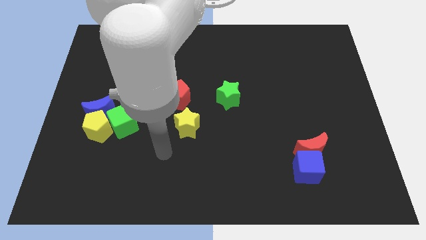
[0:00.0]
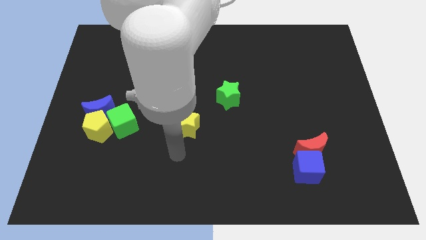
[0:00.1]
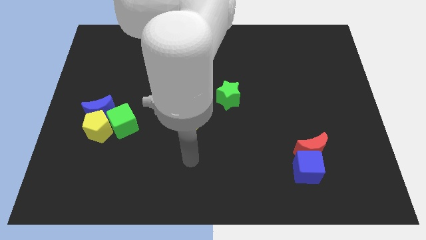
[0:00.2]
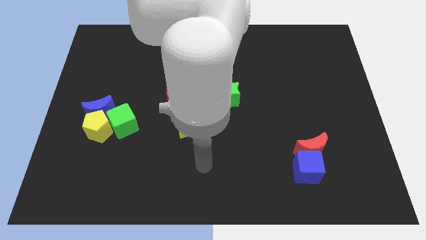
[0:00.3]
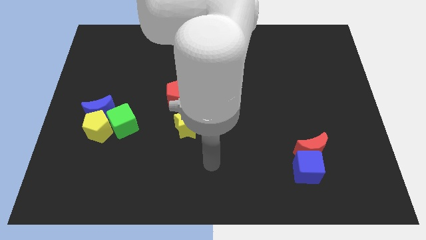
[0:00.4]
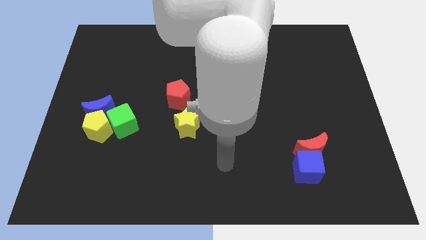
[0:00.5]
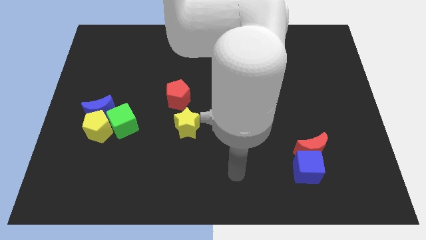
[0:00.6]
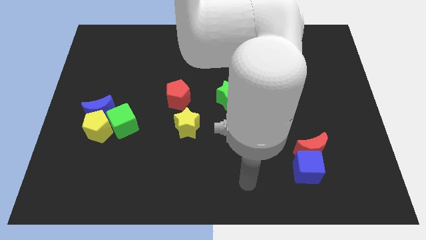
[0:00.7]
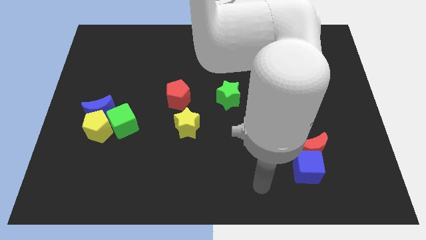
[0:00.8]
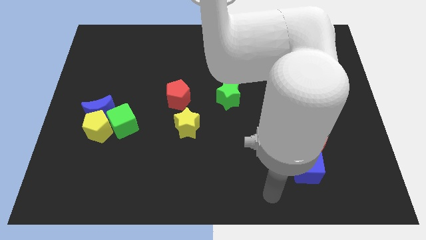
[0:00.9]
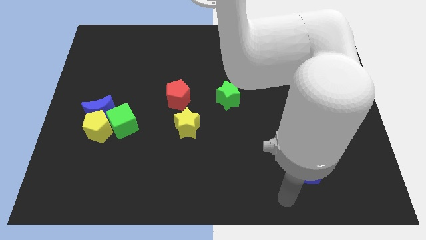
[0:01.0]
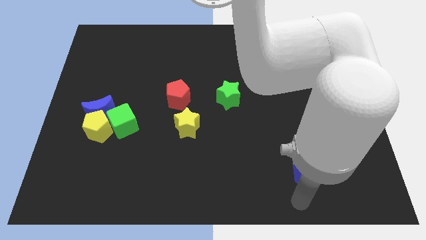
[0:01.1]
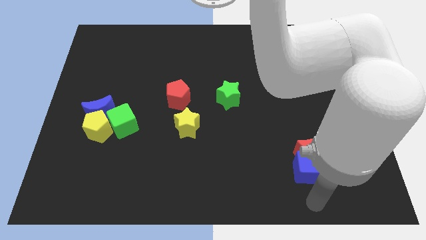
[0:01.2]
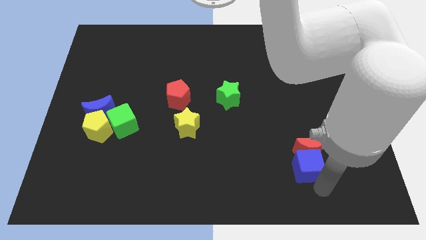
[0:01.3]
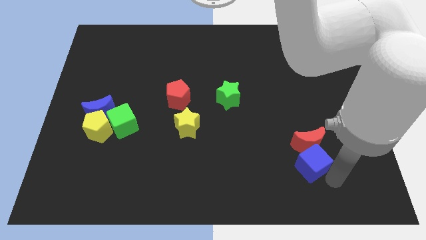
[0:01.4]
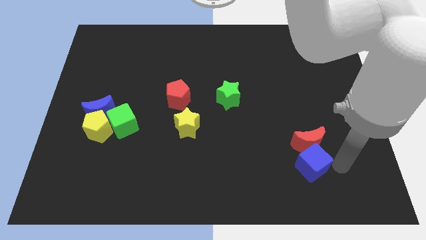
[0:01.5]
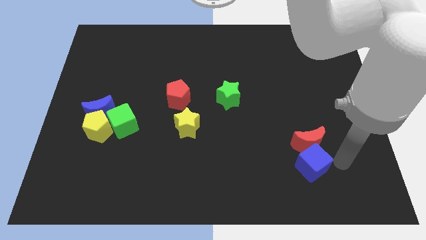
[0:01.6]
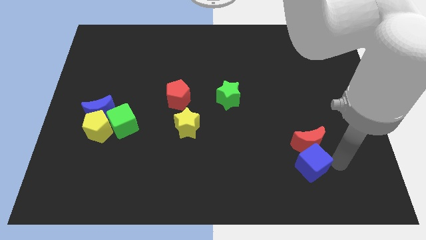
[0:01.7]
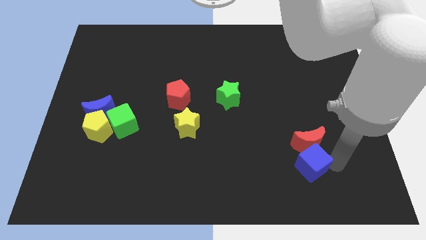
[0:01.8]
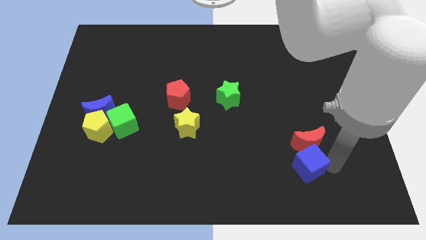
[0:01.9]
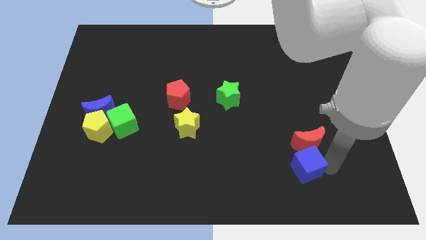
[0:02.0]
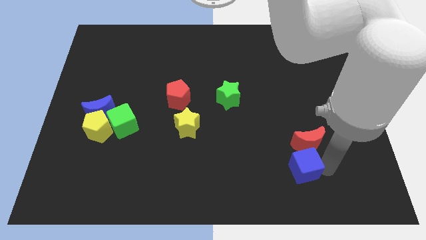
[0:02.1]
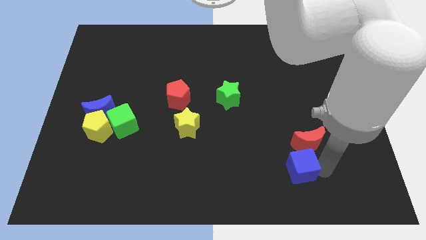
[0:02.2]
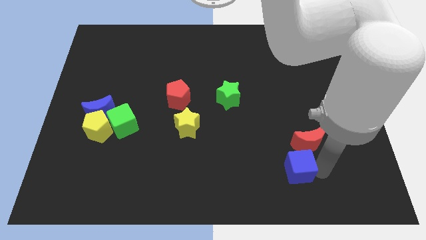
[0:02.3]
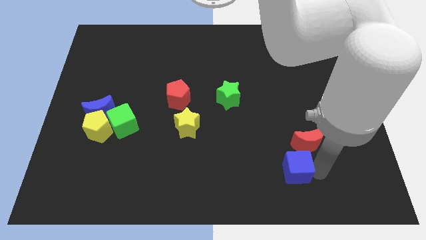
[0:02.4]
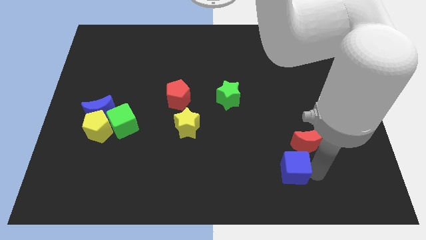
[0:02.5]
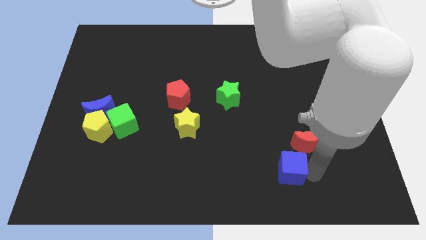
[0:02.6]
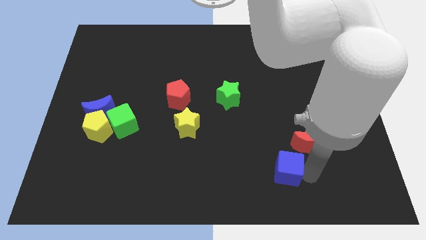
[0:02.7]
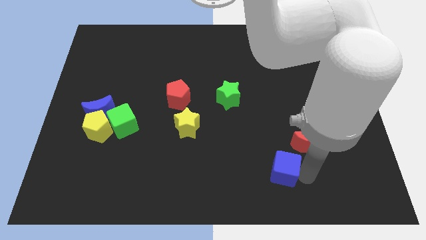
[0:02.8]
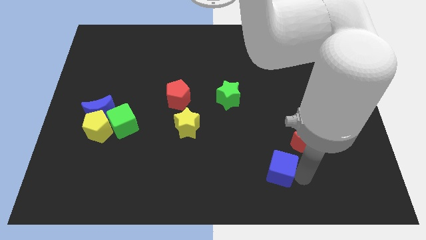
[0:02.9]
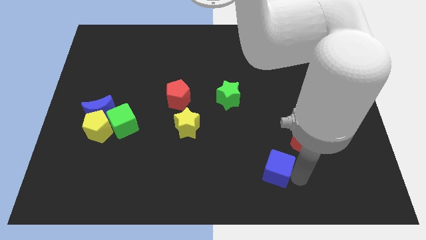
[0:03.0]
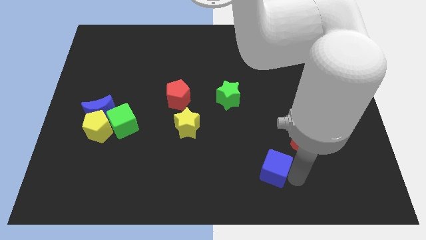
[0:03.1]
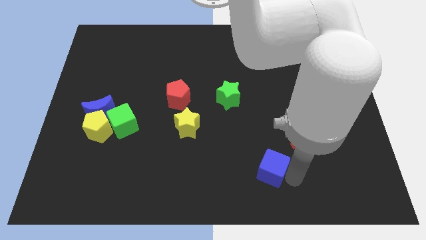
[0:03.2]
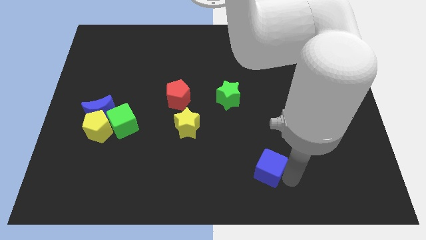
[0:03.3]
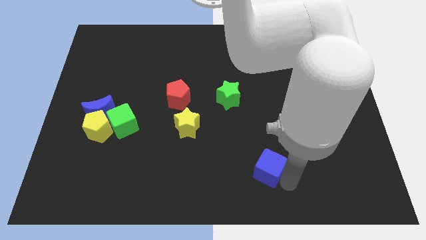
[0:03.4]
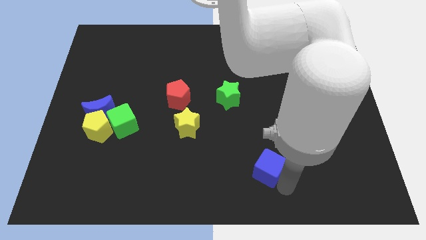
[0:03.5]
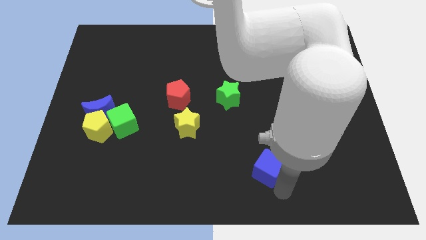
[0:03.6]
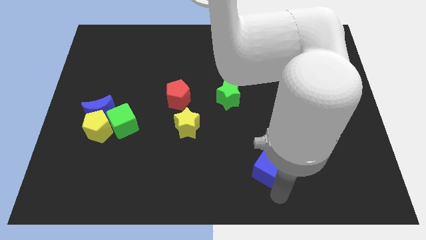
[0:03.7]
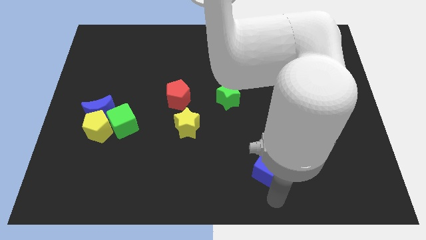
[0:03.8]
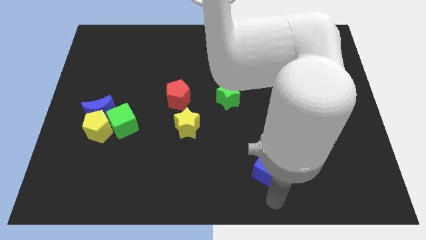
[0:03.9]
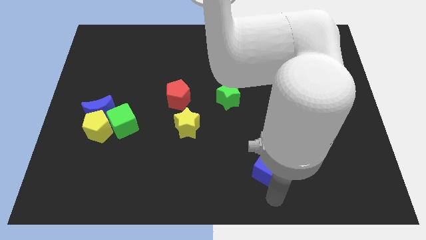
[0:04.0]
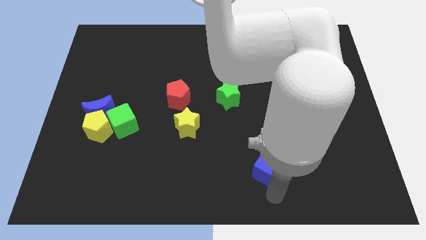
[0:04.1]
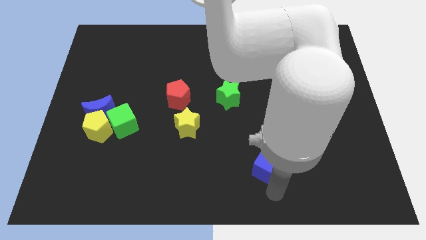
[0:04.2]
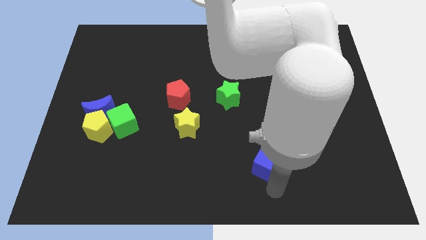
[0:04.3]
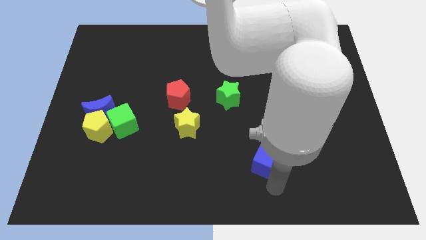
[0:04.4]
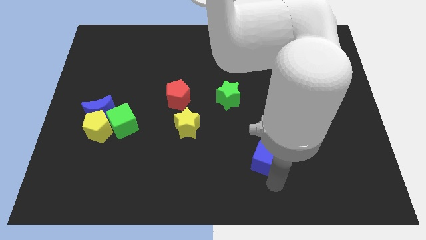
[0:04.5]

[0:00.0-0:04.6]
slightly move the blue cube upwards and to the left diagonally

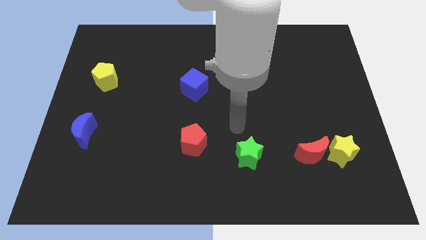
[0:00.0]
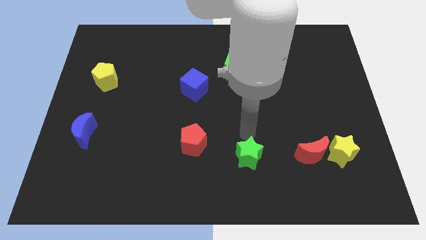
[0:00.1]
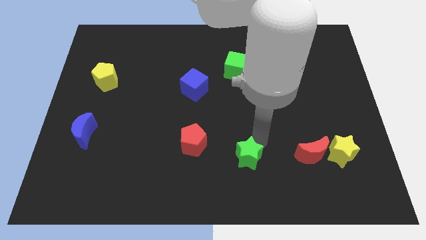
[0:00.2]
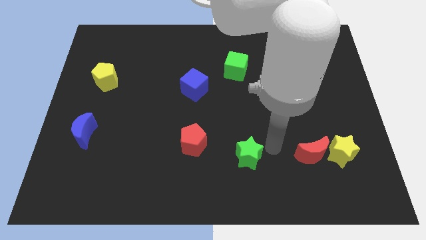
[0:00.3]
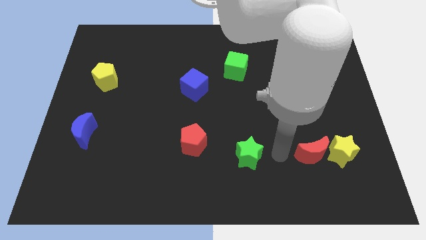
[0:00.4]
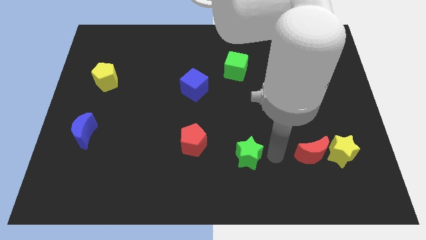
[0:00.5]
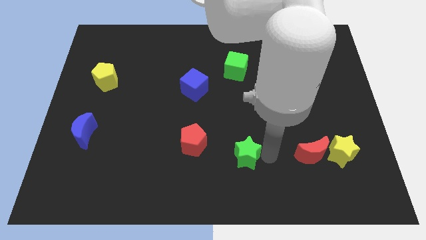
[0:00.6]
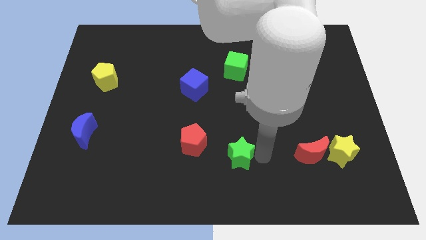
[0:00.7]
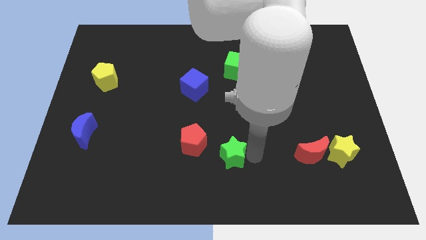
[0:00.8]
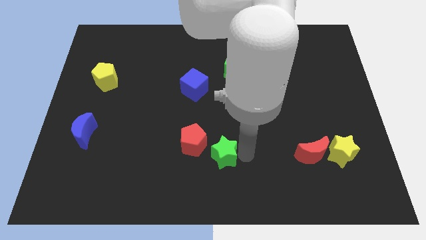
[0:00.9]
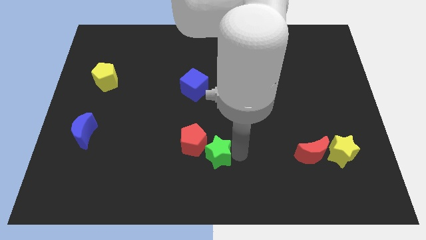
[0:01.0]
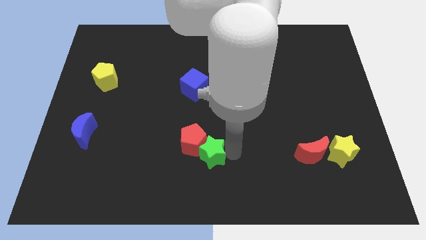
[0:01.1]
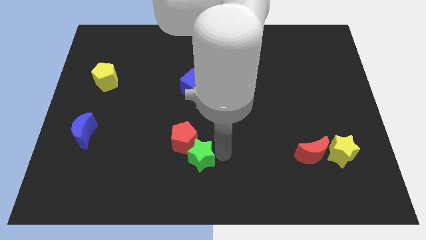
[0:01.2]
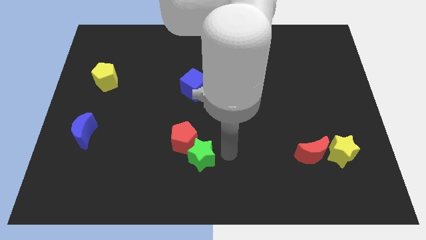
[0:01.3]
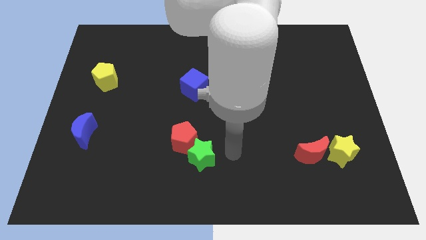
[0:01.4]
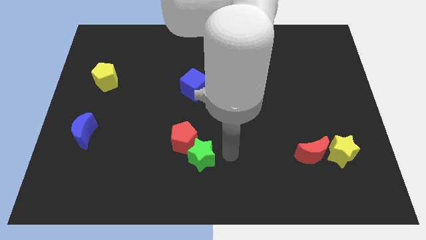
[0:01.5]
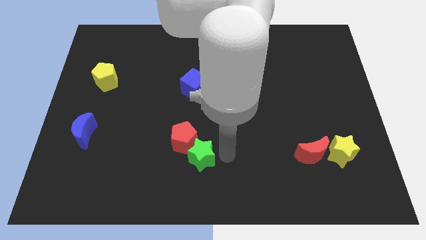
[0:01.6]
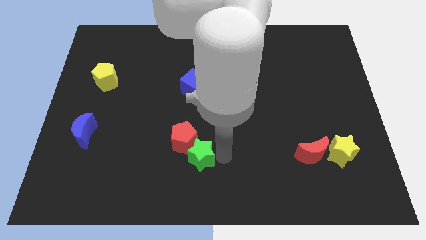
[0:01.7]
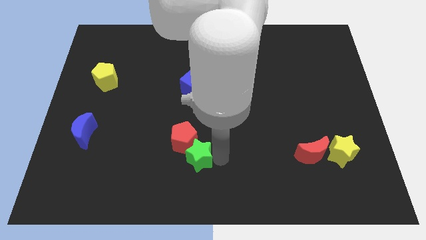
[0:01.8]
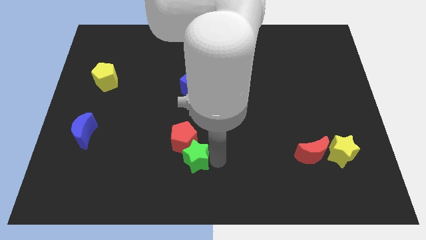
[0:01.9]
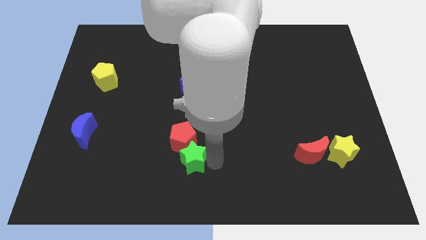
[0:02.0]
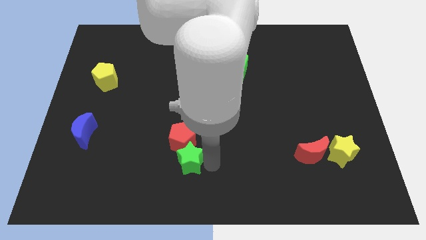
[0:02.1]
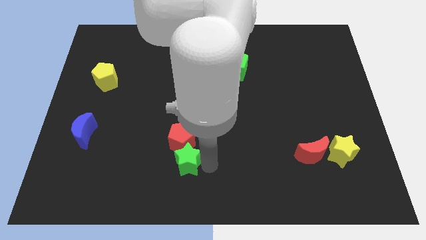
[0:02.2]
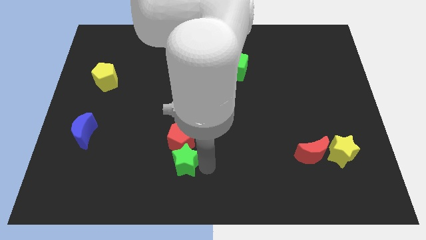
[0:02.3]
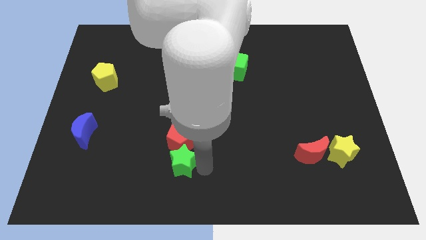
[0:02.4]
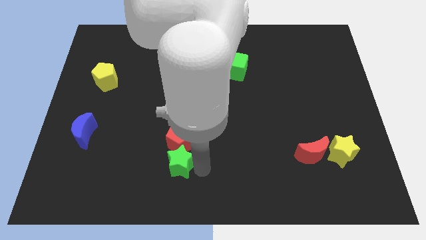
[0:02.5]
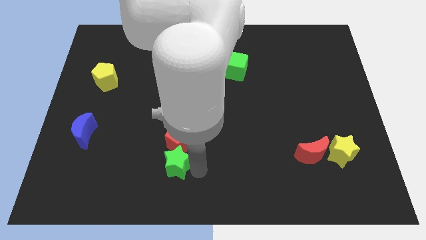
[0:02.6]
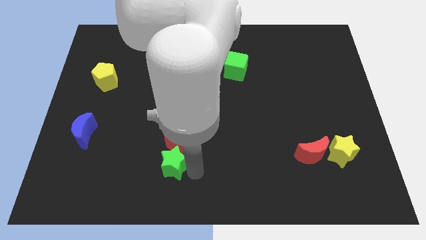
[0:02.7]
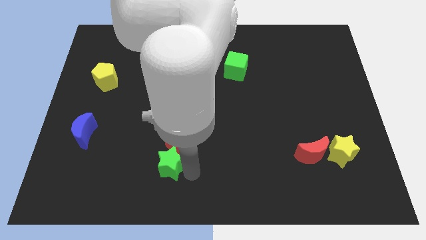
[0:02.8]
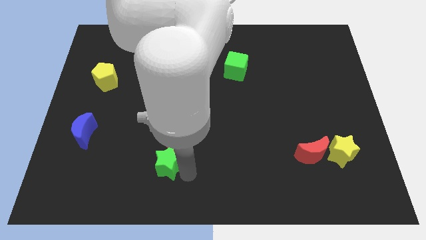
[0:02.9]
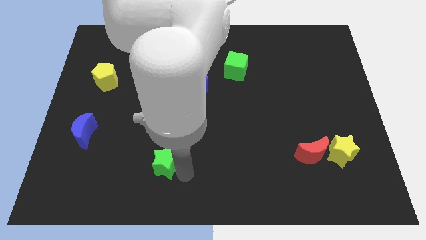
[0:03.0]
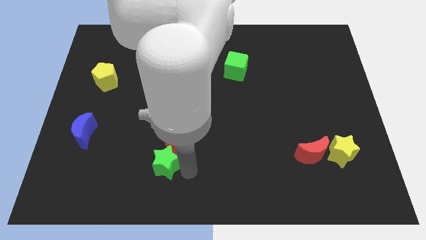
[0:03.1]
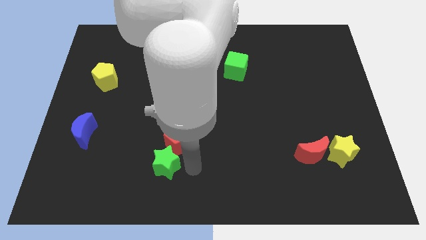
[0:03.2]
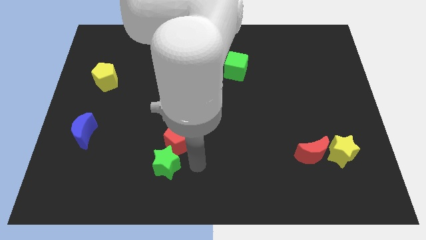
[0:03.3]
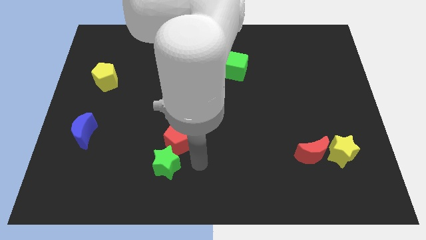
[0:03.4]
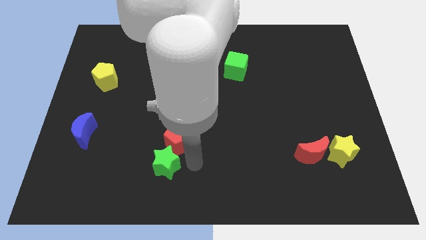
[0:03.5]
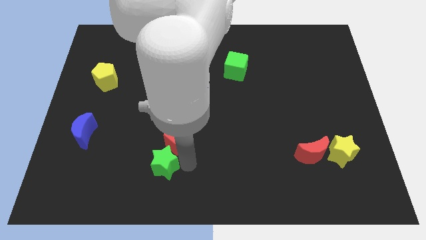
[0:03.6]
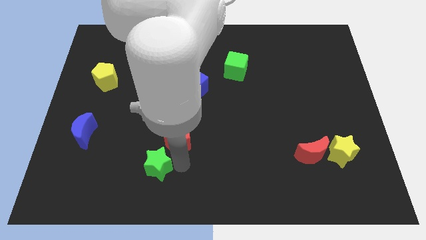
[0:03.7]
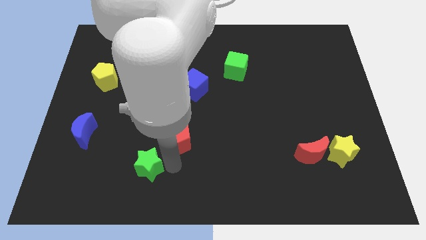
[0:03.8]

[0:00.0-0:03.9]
slide the green star left

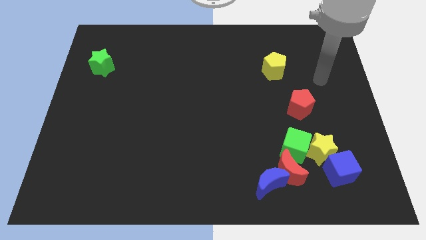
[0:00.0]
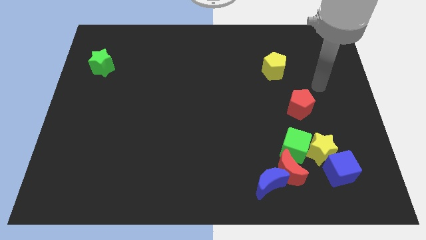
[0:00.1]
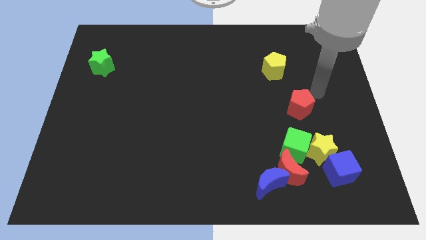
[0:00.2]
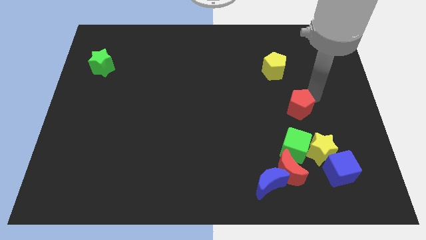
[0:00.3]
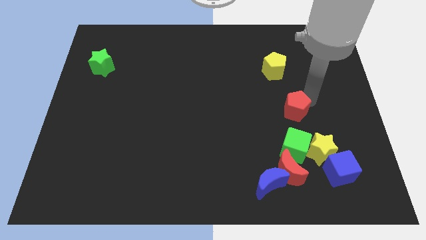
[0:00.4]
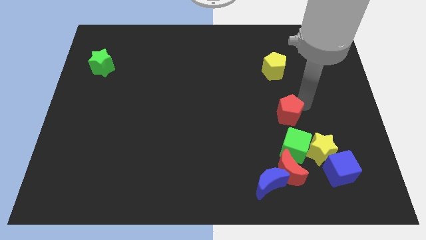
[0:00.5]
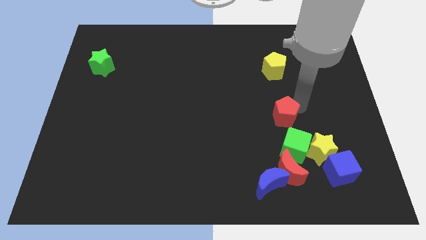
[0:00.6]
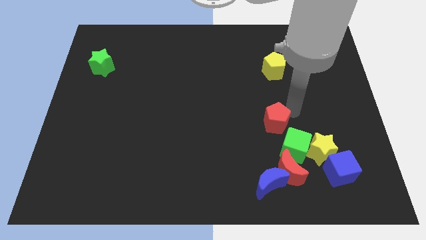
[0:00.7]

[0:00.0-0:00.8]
push the red pentagon downwards and then left a little bit
